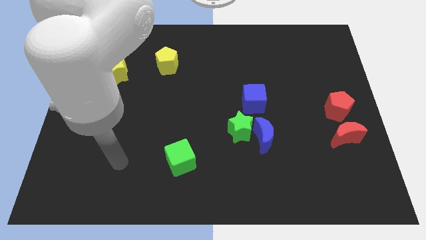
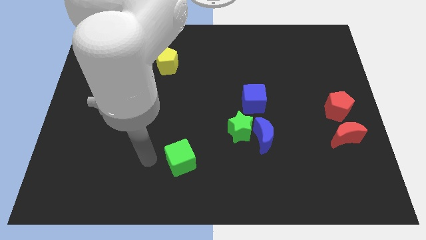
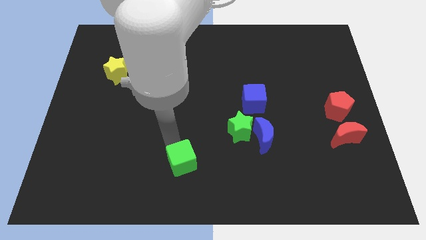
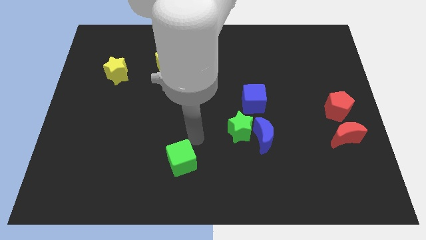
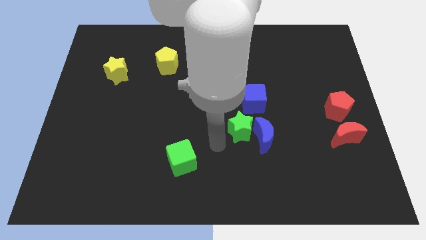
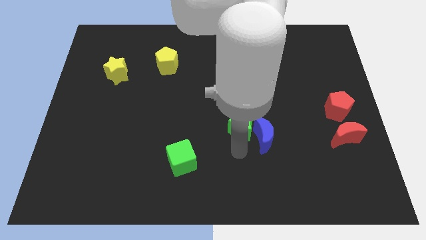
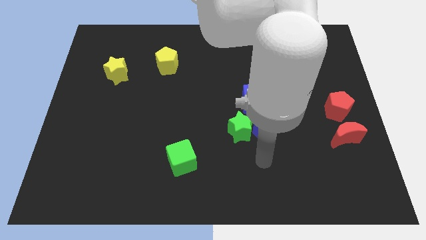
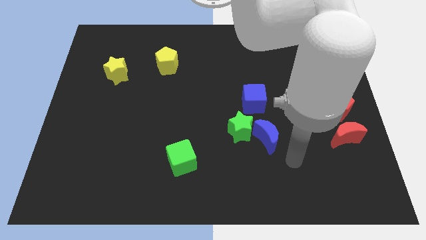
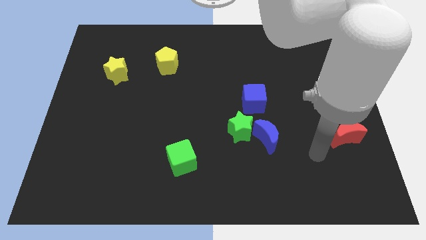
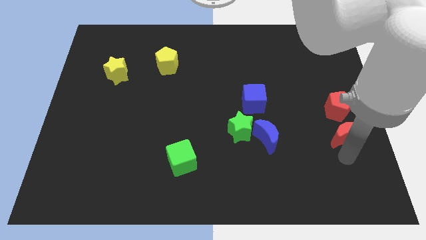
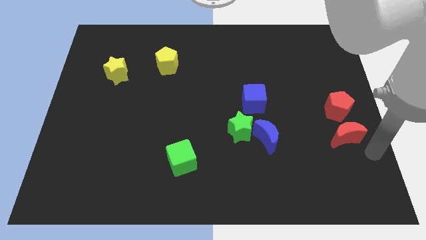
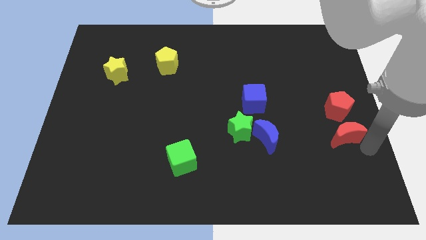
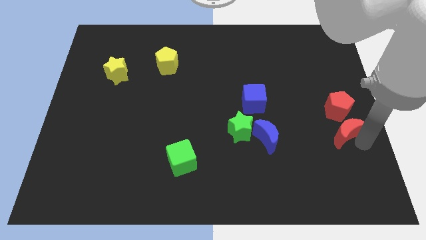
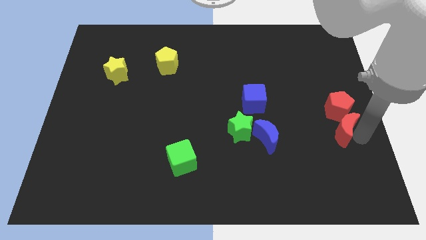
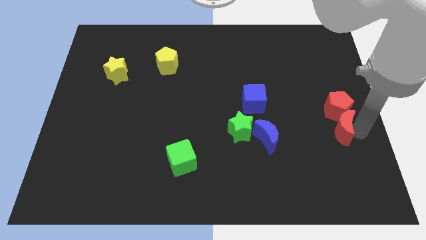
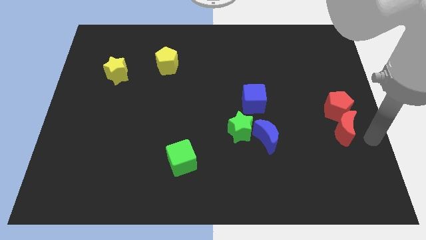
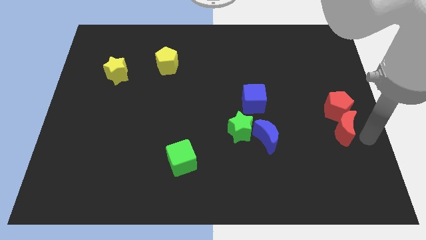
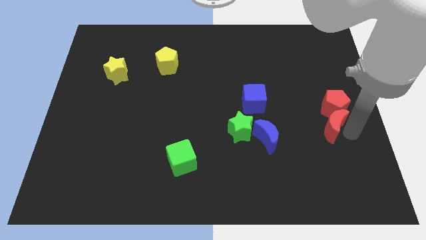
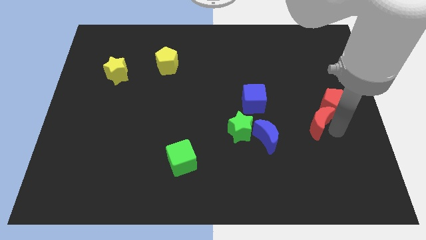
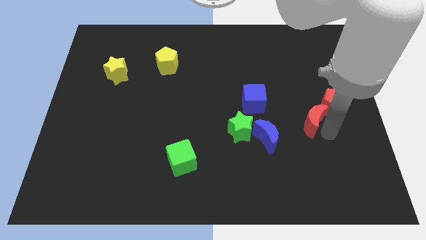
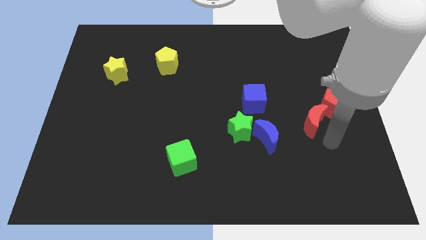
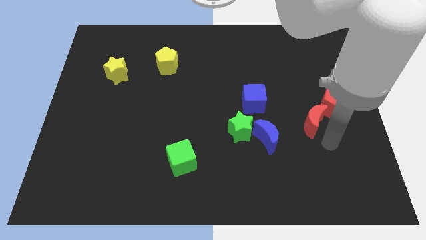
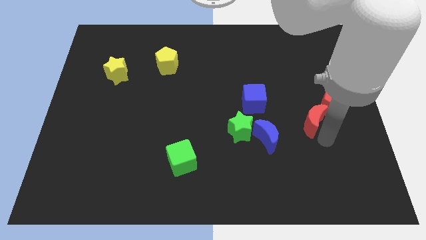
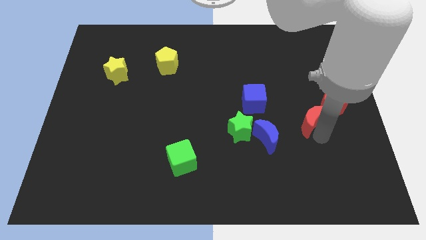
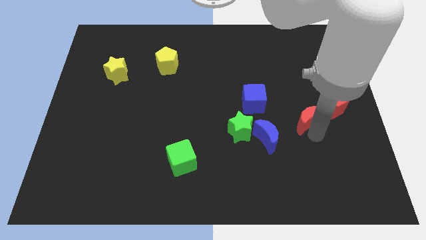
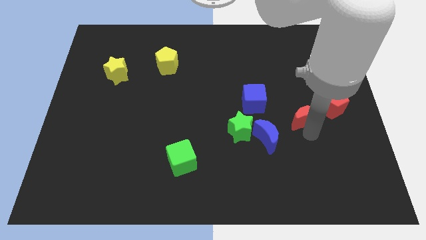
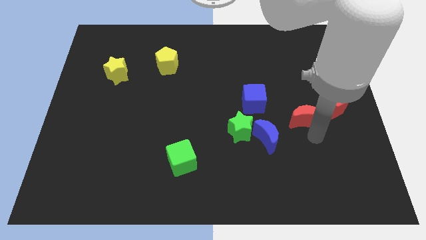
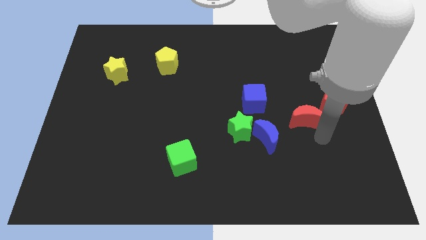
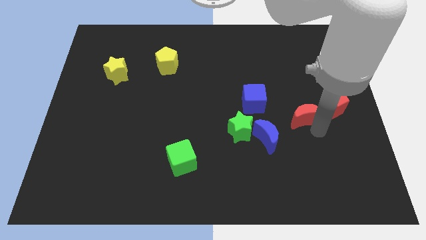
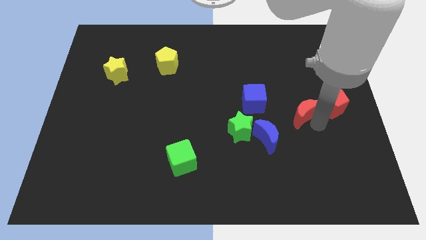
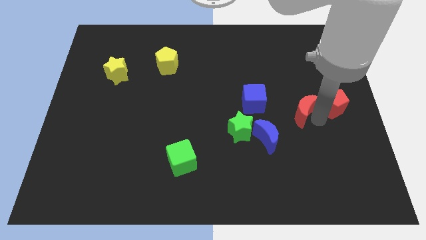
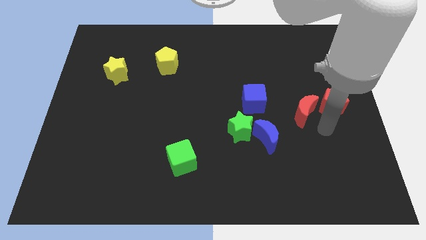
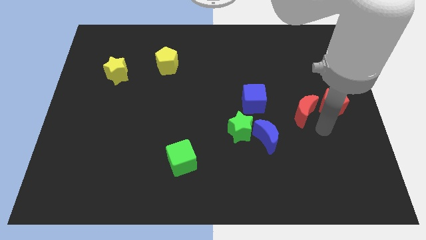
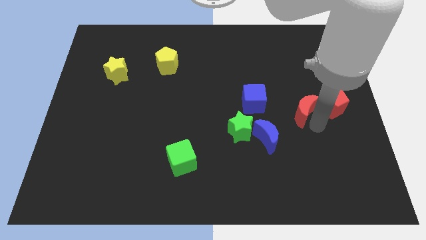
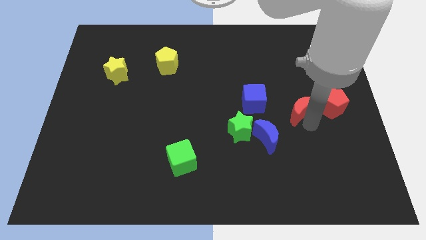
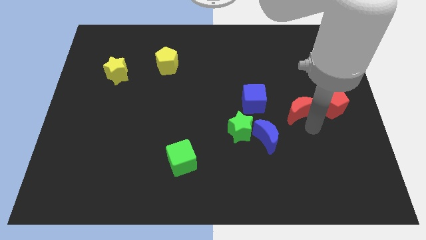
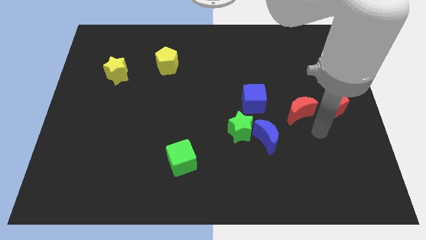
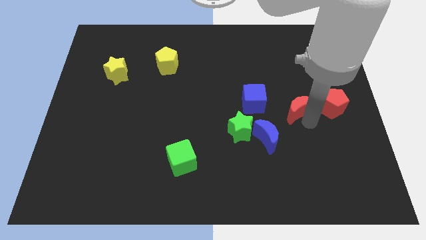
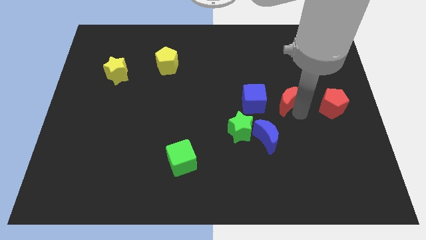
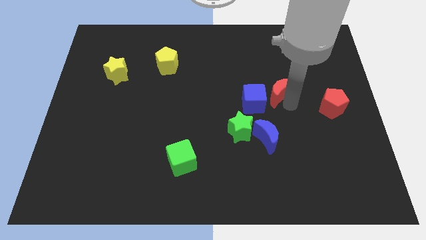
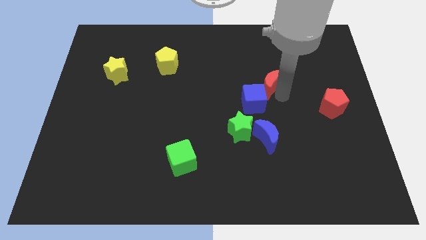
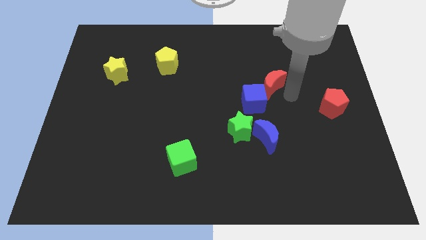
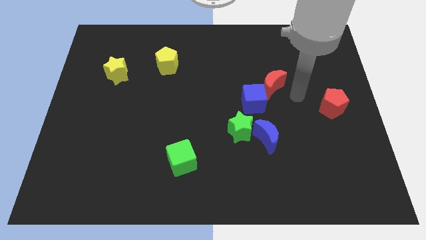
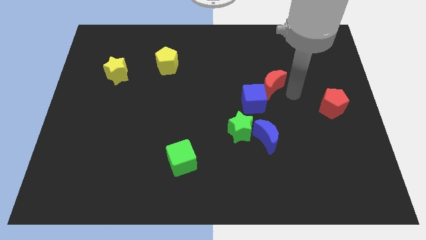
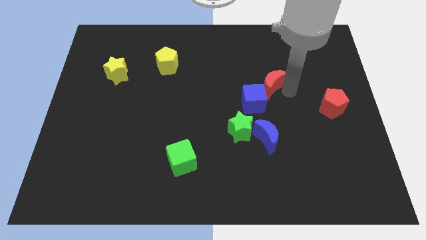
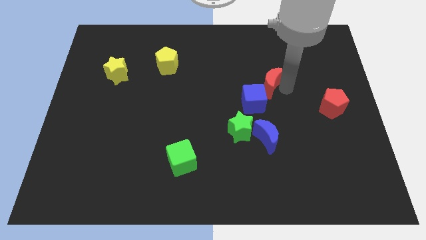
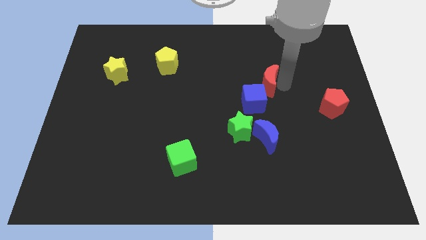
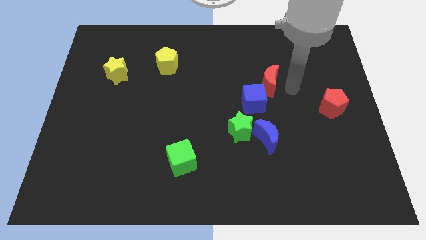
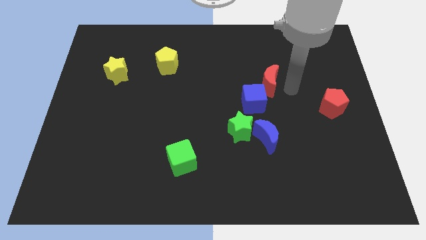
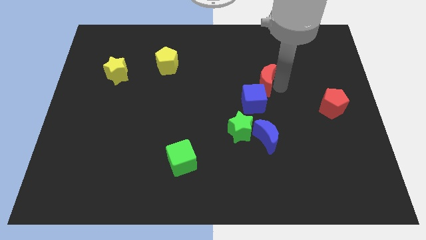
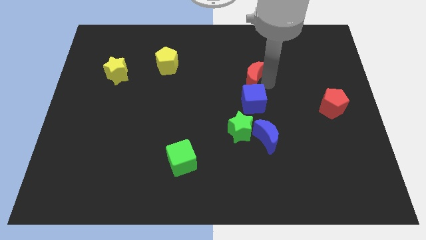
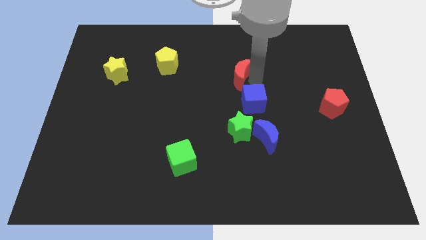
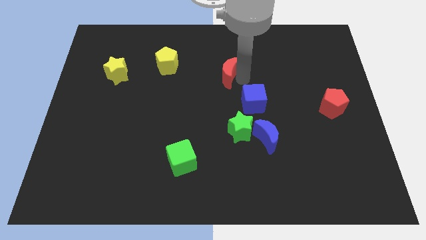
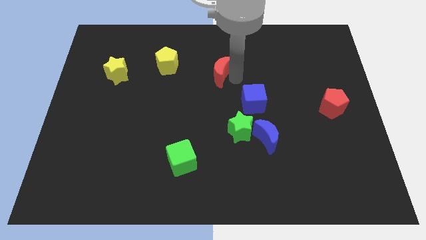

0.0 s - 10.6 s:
push the red moon to the right side of the yellow pentagon
